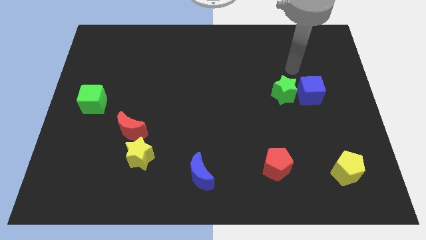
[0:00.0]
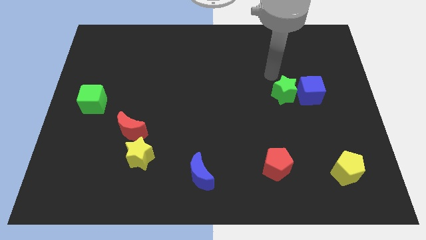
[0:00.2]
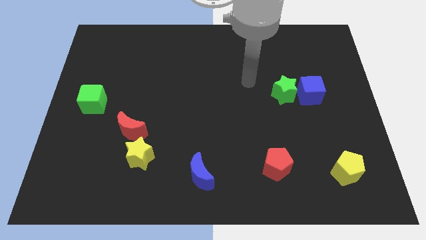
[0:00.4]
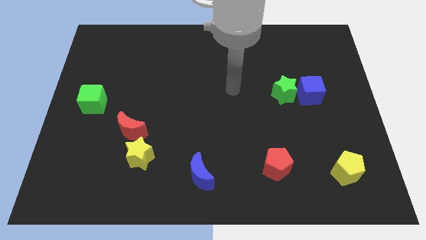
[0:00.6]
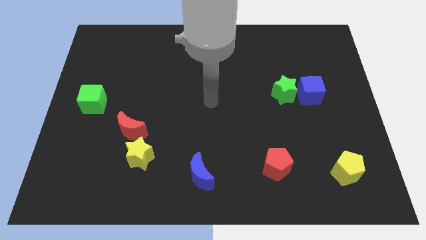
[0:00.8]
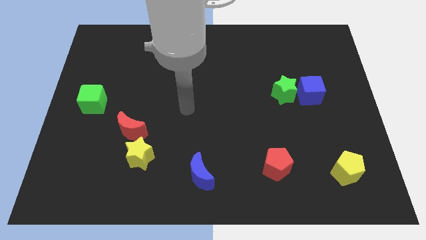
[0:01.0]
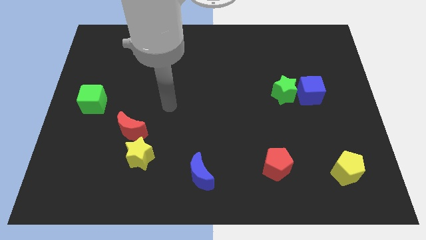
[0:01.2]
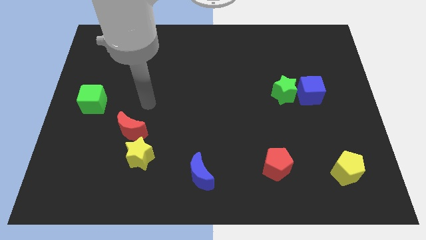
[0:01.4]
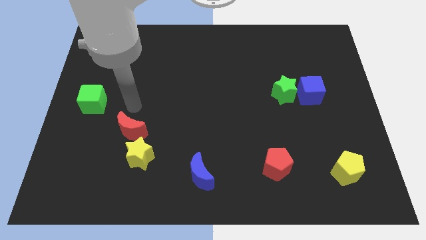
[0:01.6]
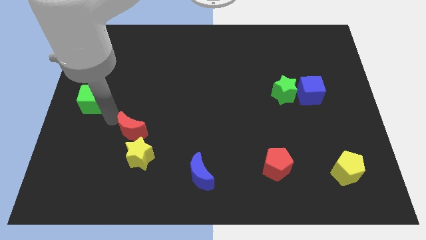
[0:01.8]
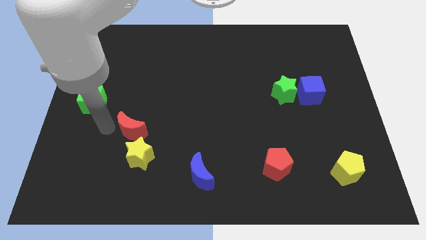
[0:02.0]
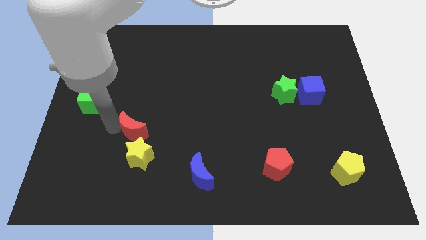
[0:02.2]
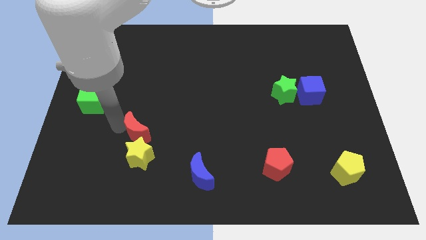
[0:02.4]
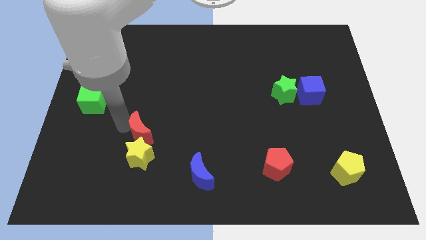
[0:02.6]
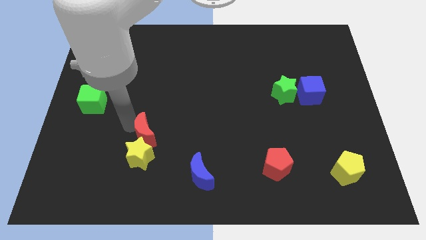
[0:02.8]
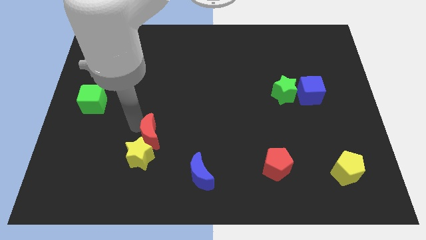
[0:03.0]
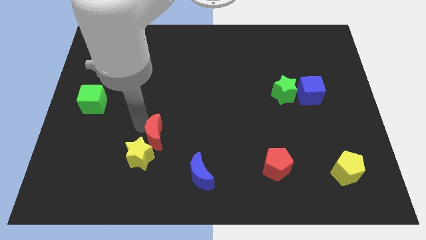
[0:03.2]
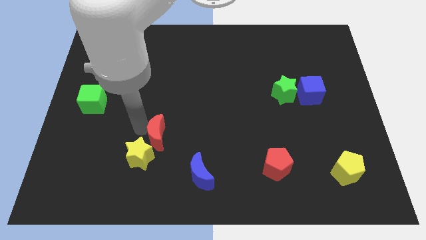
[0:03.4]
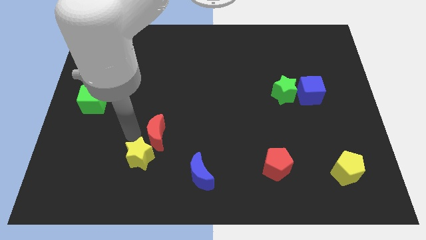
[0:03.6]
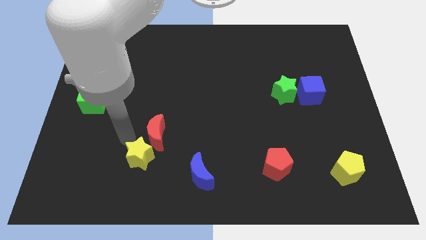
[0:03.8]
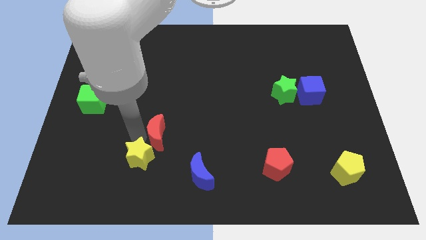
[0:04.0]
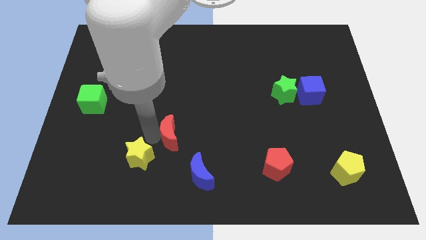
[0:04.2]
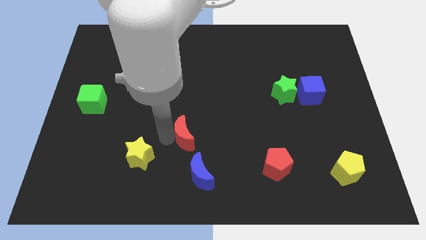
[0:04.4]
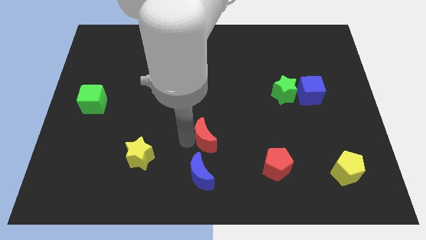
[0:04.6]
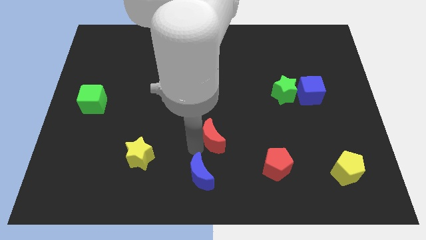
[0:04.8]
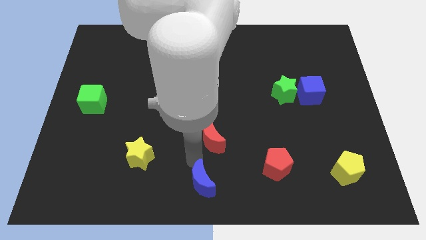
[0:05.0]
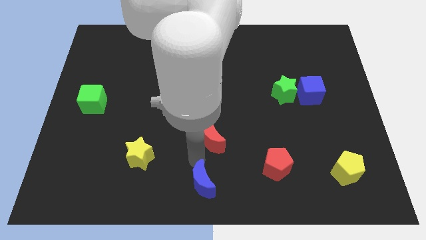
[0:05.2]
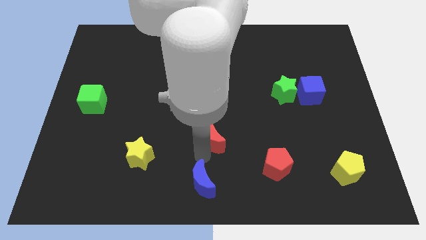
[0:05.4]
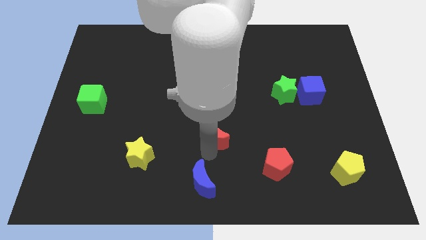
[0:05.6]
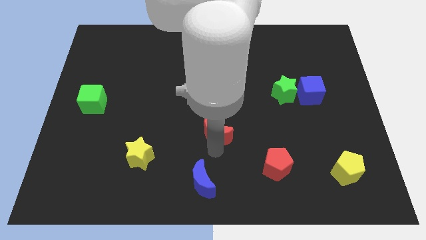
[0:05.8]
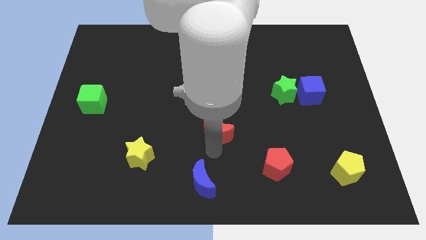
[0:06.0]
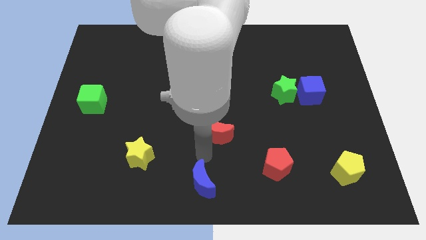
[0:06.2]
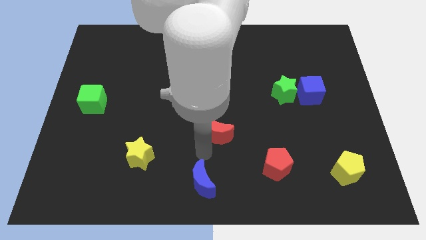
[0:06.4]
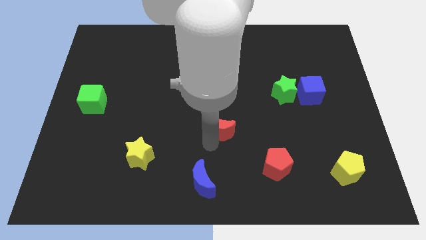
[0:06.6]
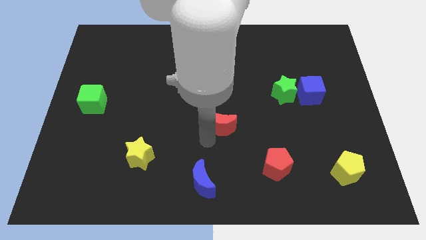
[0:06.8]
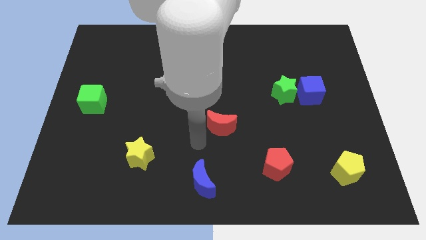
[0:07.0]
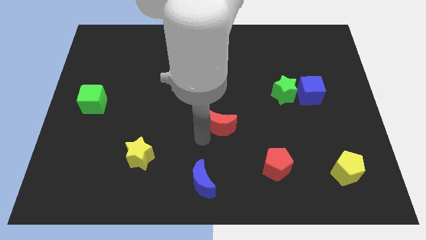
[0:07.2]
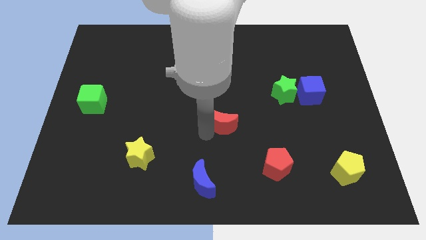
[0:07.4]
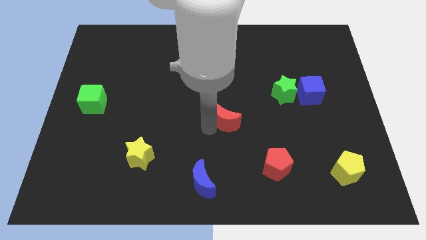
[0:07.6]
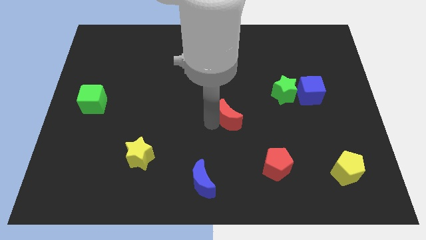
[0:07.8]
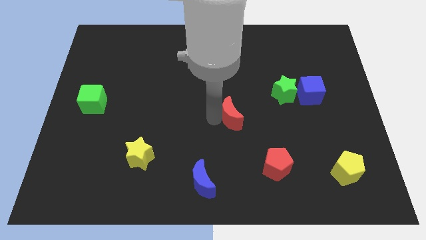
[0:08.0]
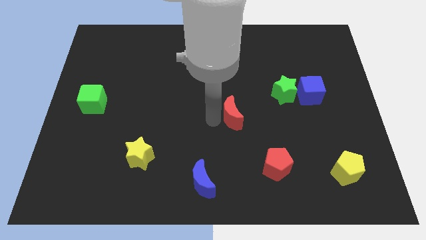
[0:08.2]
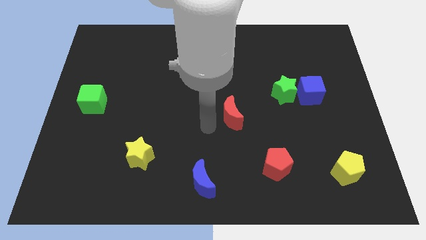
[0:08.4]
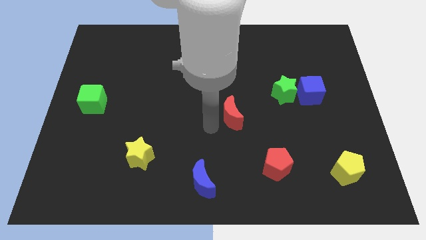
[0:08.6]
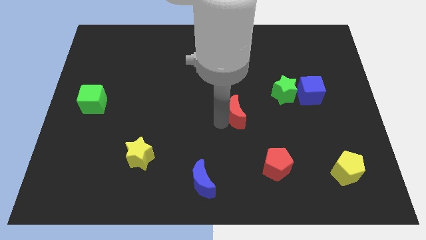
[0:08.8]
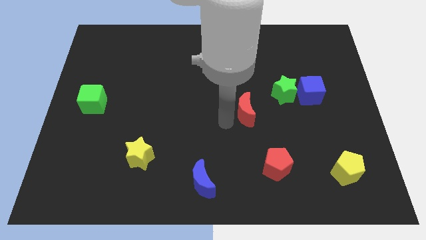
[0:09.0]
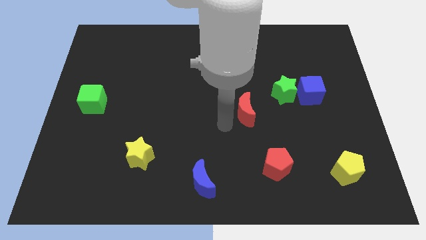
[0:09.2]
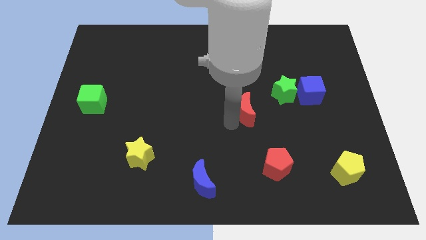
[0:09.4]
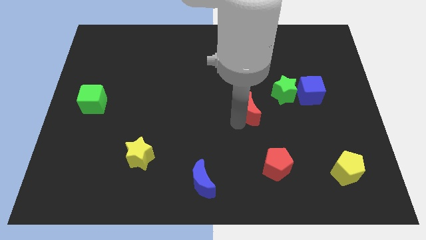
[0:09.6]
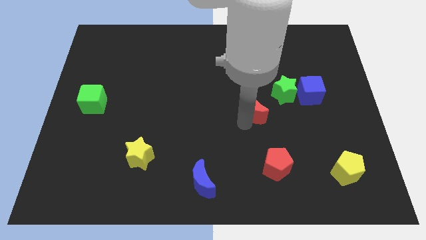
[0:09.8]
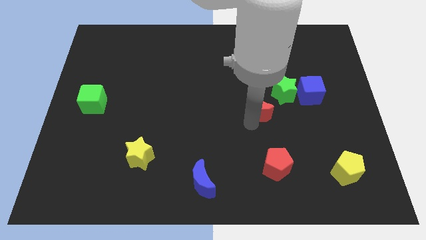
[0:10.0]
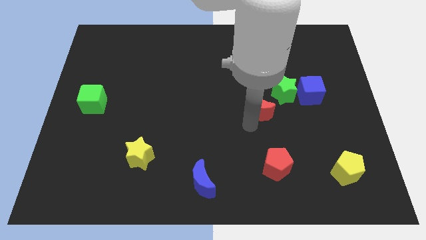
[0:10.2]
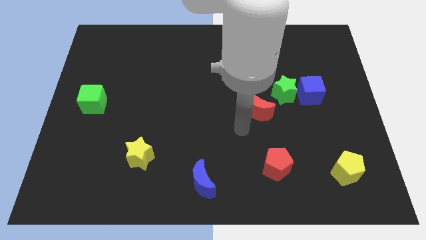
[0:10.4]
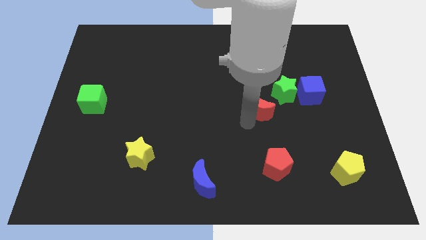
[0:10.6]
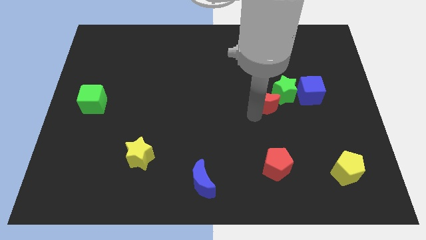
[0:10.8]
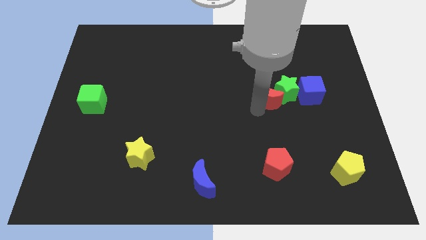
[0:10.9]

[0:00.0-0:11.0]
slide the red moon close to the green star

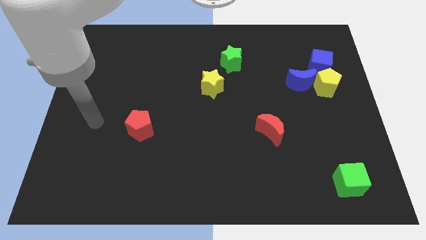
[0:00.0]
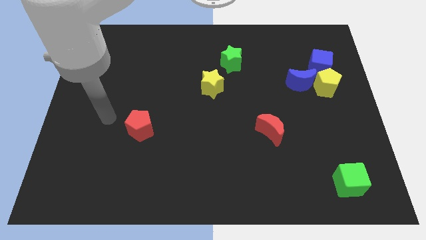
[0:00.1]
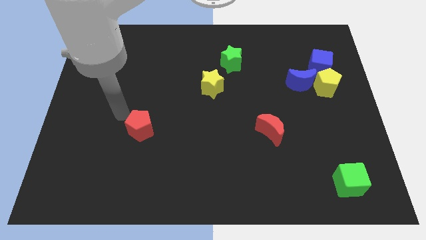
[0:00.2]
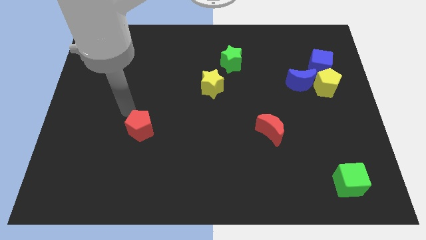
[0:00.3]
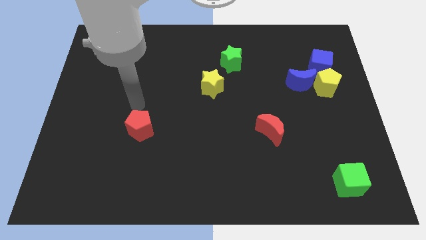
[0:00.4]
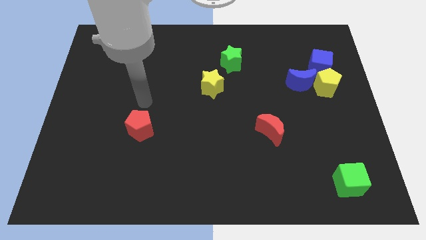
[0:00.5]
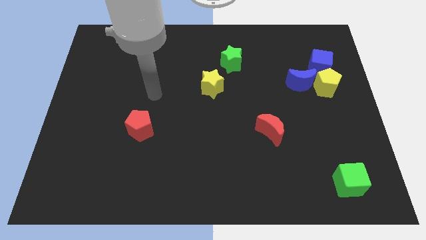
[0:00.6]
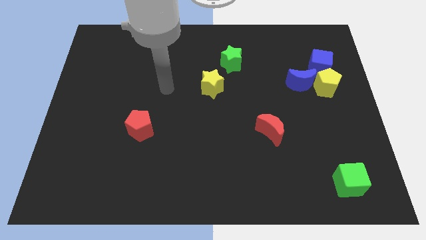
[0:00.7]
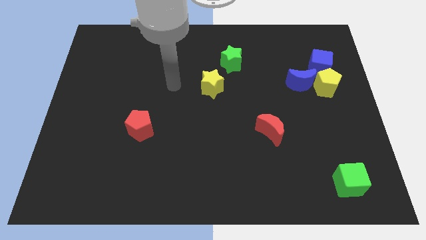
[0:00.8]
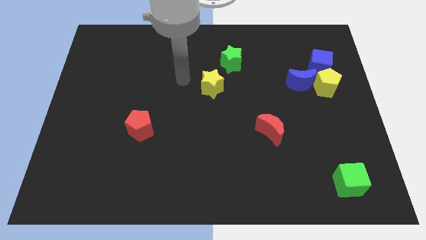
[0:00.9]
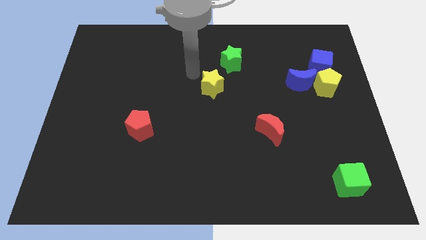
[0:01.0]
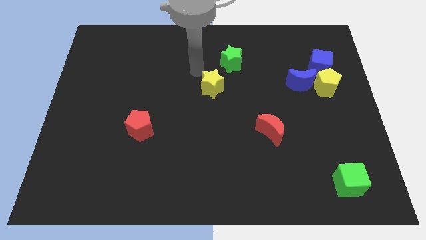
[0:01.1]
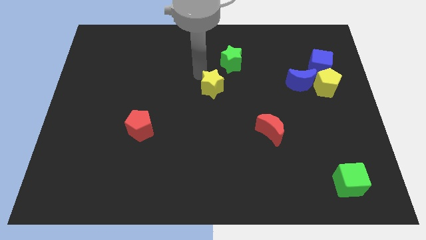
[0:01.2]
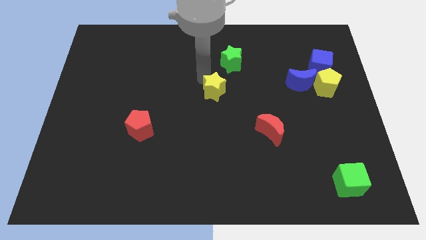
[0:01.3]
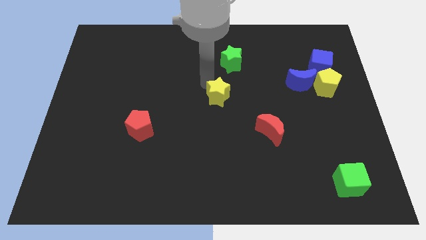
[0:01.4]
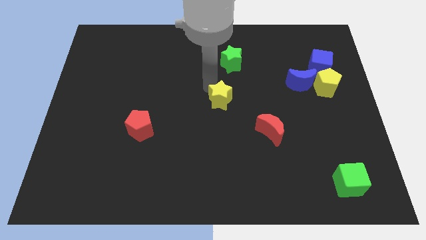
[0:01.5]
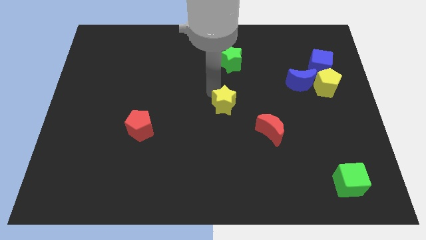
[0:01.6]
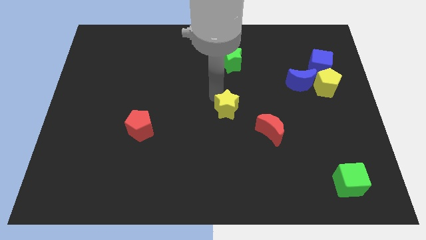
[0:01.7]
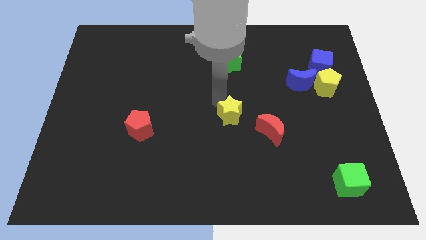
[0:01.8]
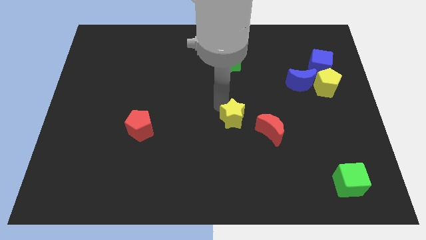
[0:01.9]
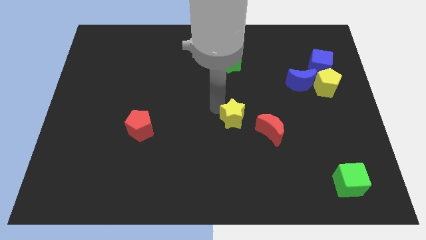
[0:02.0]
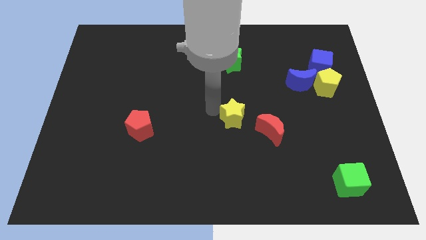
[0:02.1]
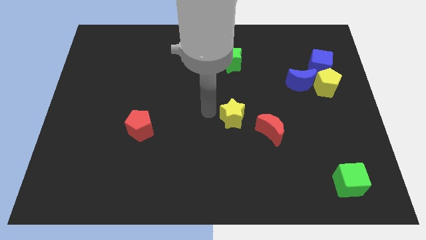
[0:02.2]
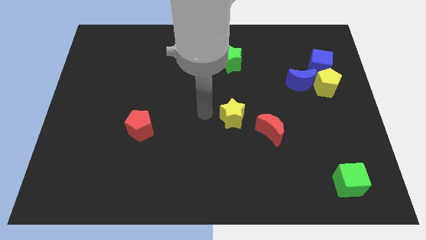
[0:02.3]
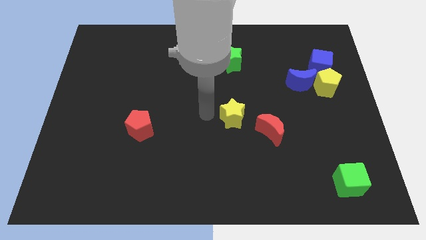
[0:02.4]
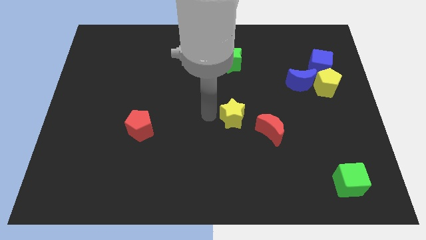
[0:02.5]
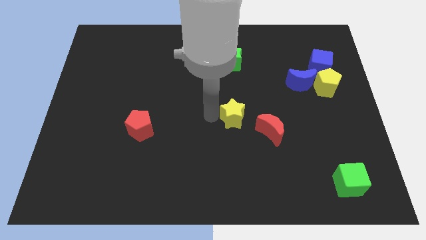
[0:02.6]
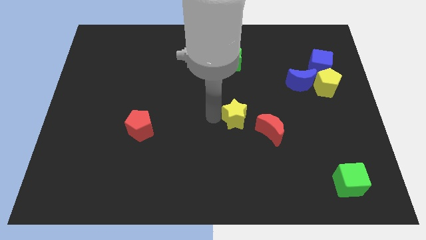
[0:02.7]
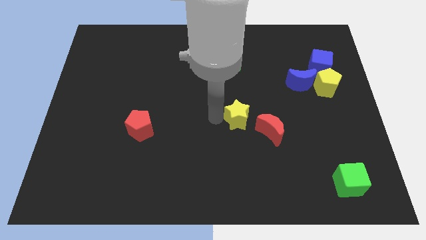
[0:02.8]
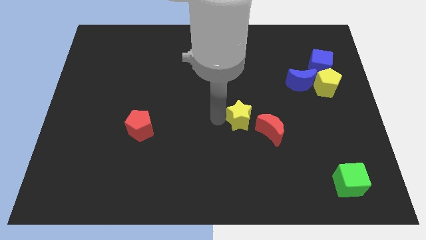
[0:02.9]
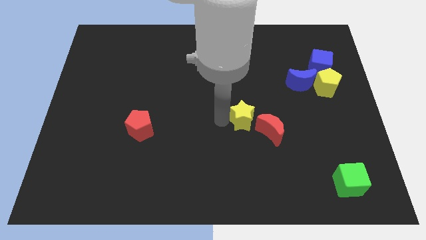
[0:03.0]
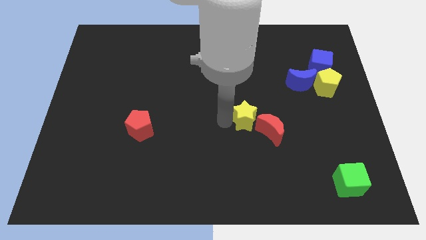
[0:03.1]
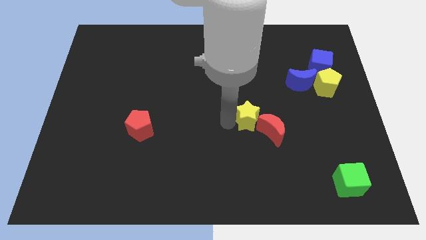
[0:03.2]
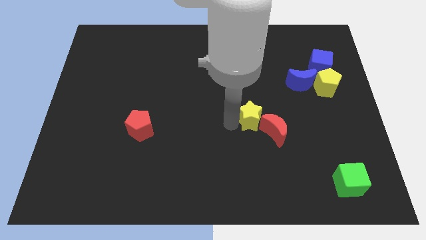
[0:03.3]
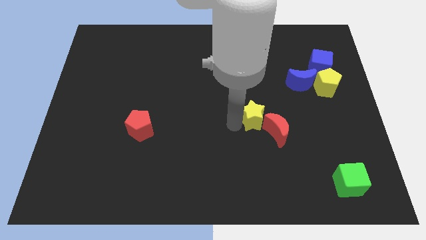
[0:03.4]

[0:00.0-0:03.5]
slide the yellow star next to the red moon
